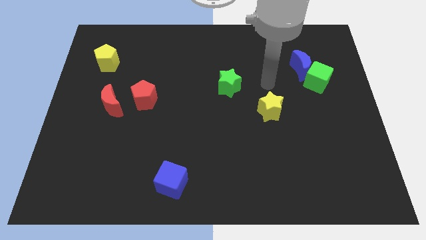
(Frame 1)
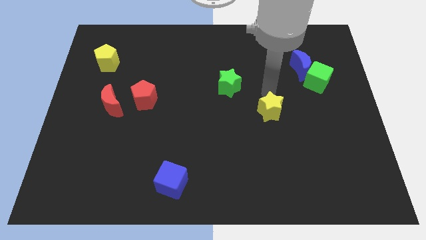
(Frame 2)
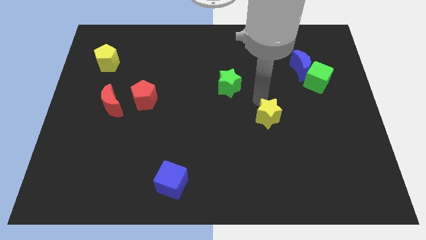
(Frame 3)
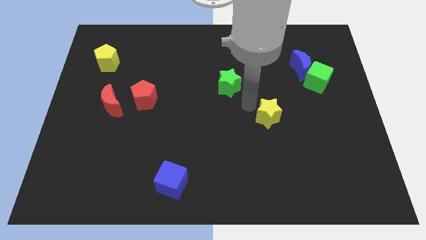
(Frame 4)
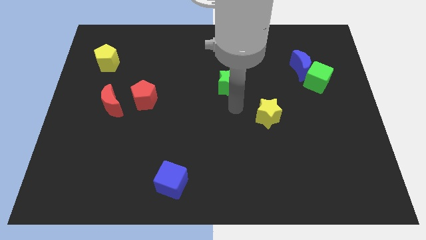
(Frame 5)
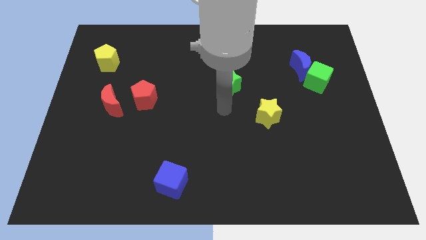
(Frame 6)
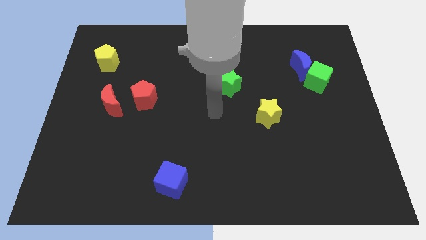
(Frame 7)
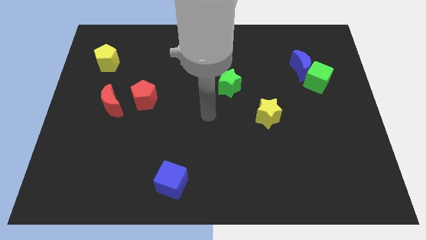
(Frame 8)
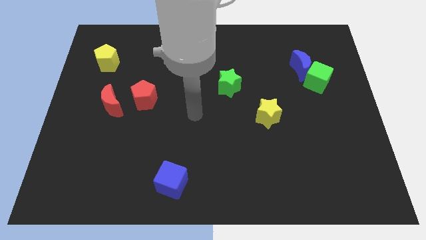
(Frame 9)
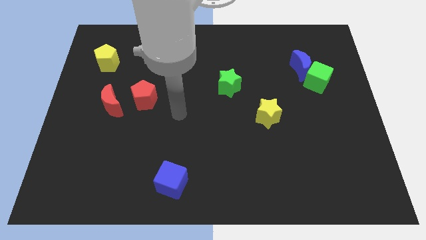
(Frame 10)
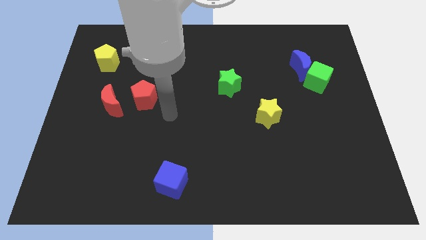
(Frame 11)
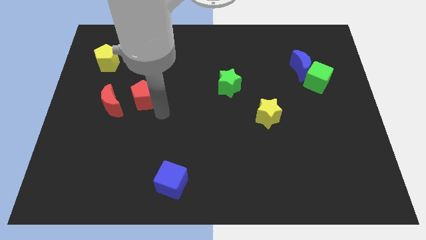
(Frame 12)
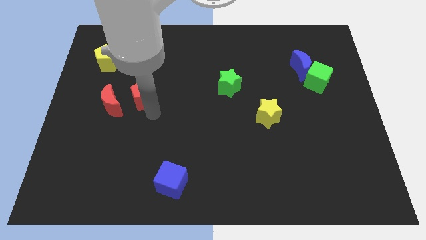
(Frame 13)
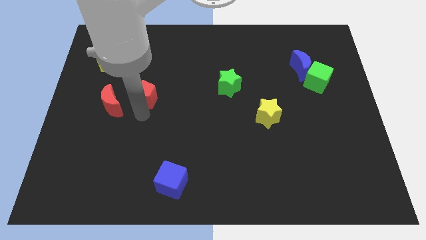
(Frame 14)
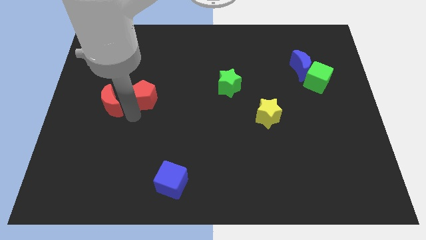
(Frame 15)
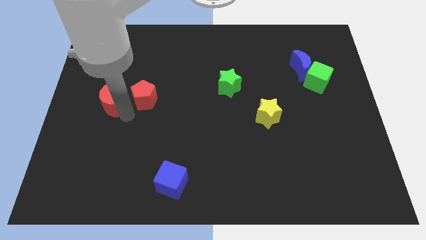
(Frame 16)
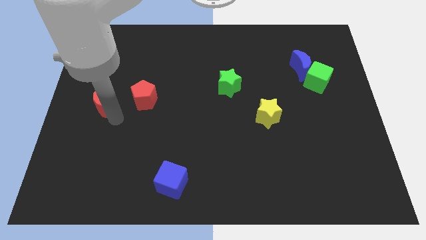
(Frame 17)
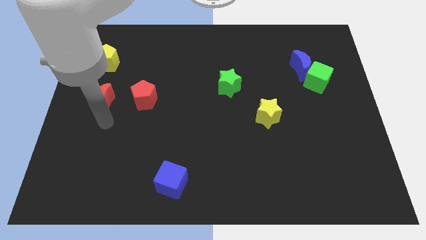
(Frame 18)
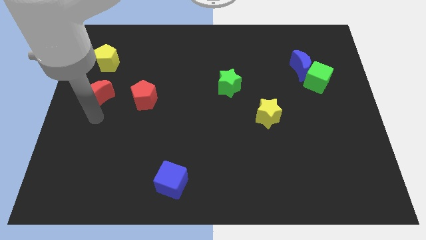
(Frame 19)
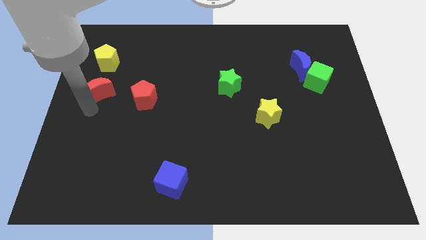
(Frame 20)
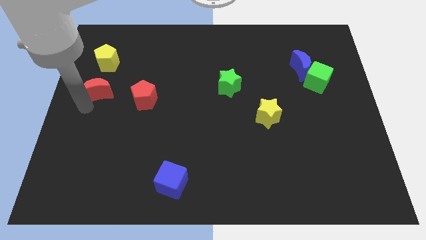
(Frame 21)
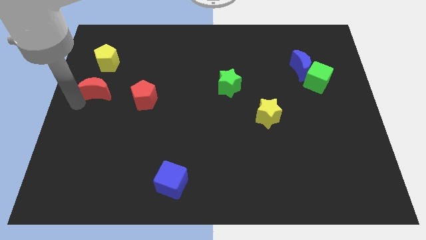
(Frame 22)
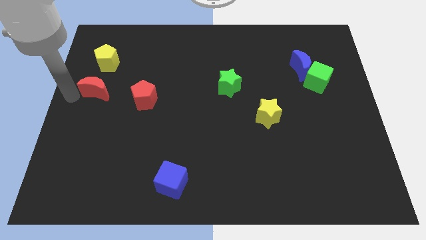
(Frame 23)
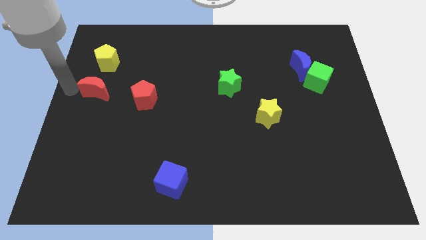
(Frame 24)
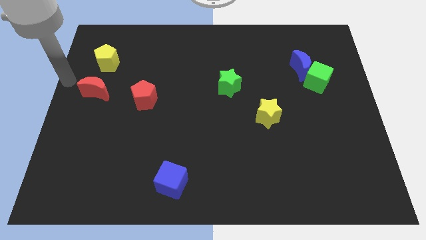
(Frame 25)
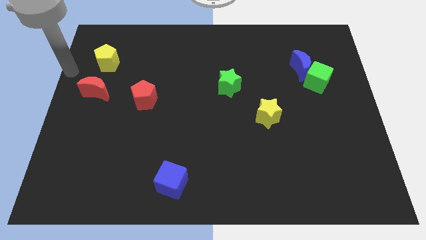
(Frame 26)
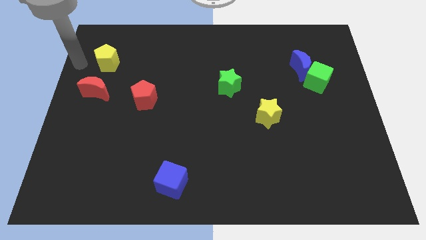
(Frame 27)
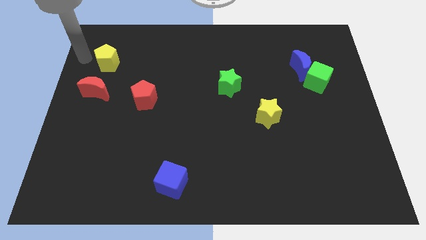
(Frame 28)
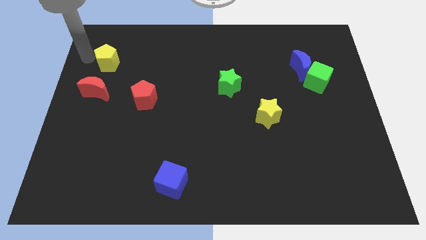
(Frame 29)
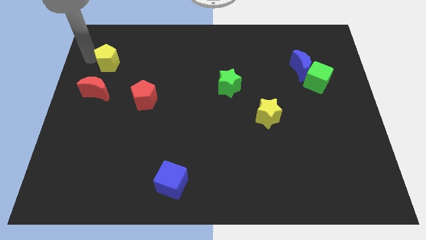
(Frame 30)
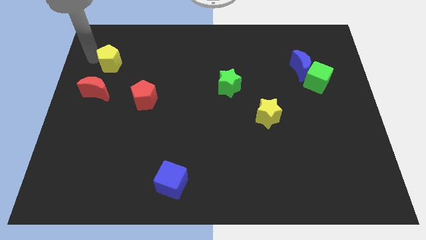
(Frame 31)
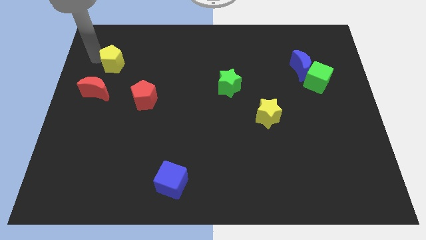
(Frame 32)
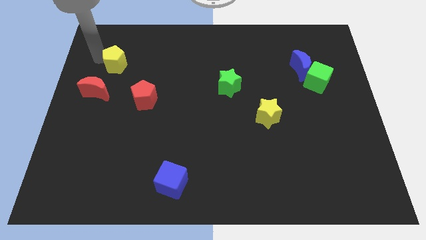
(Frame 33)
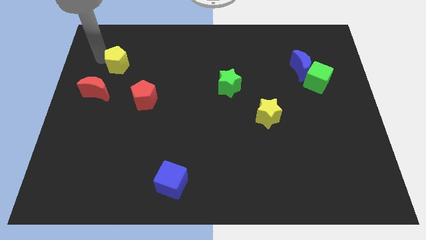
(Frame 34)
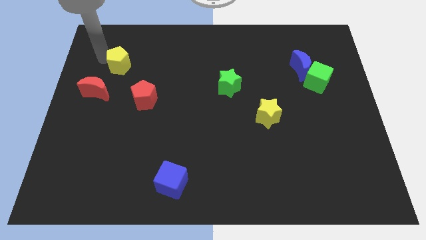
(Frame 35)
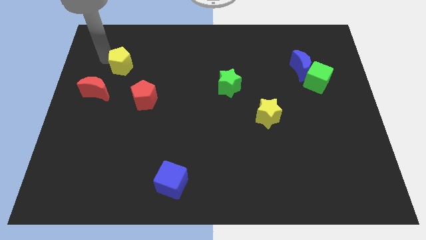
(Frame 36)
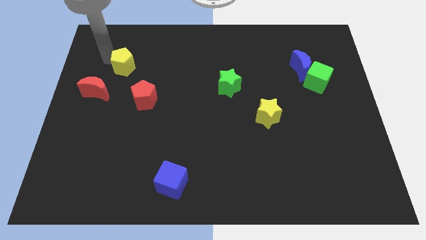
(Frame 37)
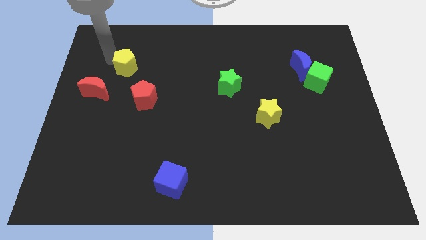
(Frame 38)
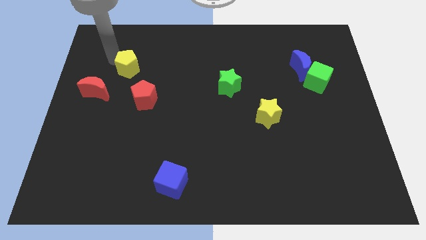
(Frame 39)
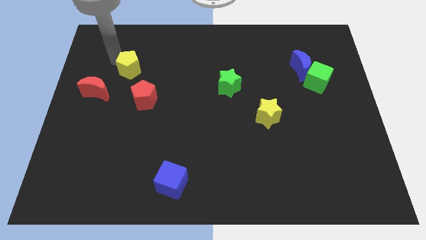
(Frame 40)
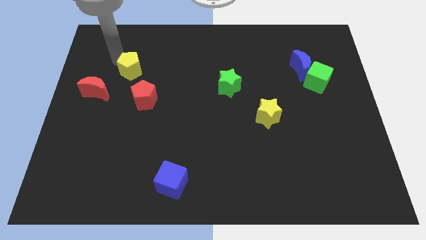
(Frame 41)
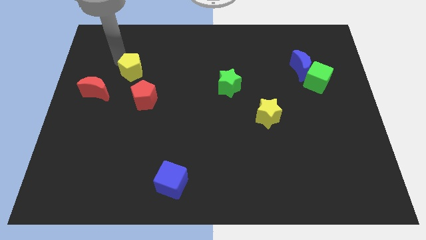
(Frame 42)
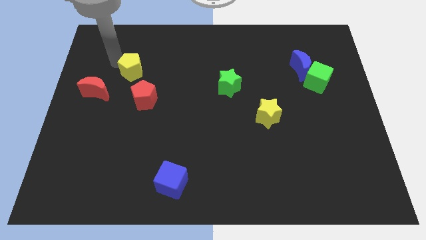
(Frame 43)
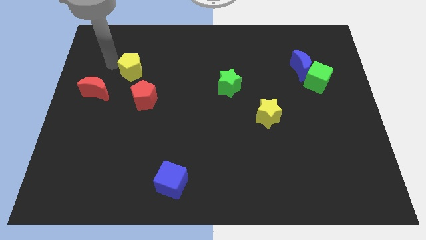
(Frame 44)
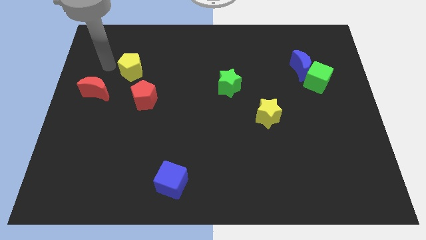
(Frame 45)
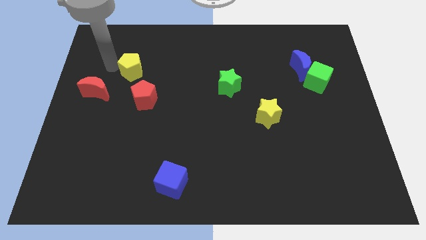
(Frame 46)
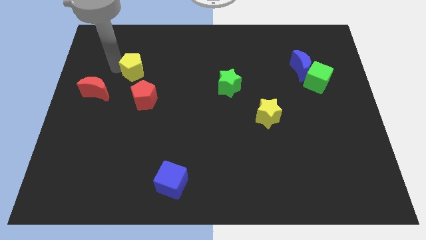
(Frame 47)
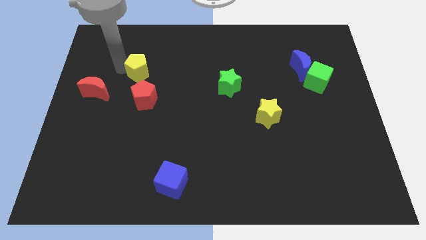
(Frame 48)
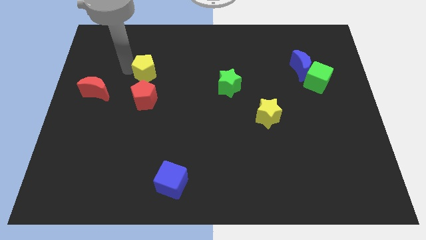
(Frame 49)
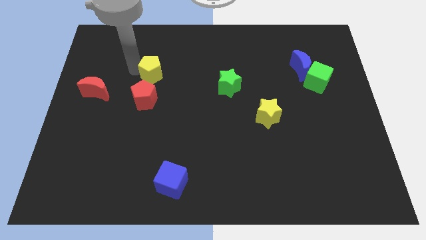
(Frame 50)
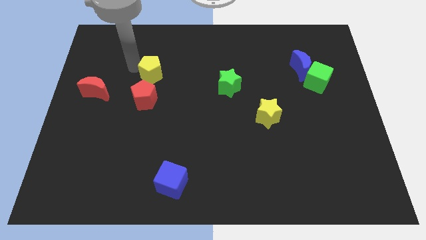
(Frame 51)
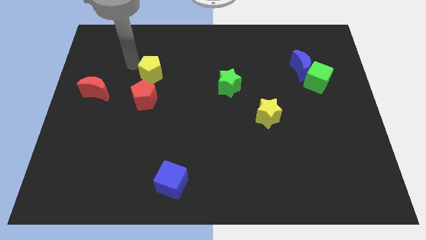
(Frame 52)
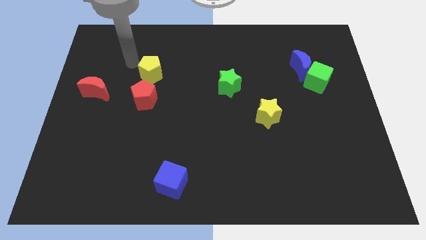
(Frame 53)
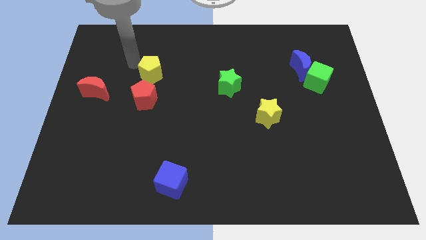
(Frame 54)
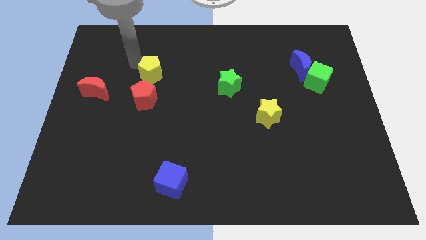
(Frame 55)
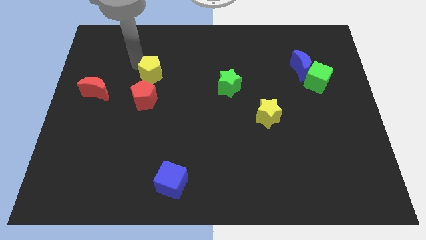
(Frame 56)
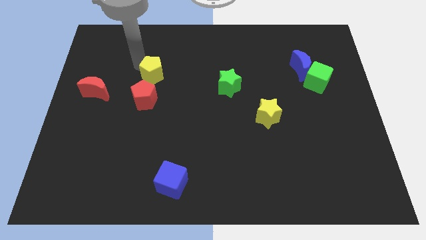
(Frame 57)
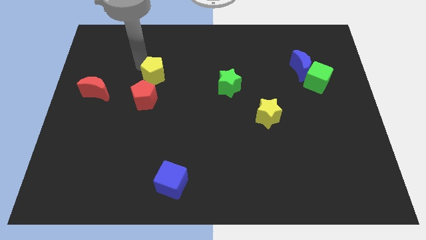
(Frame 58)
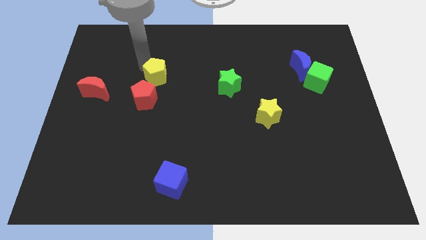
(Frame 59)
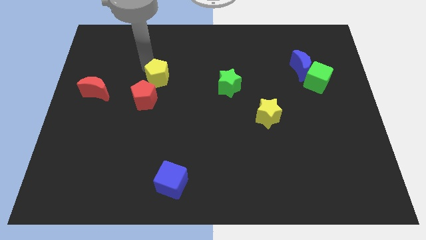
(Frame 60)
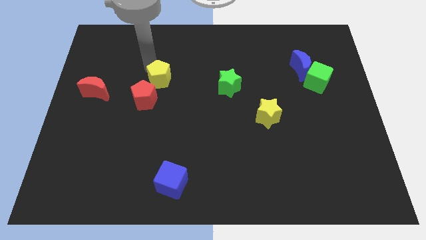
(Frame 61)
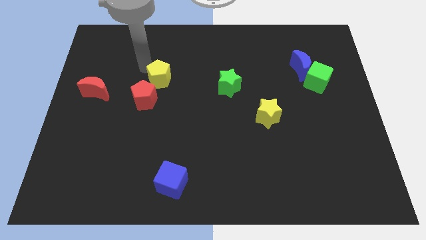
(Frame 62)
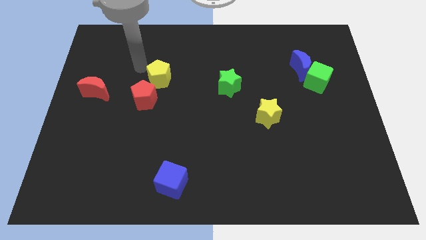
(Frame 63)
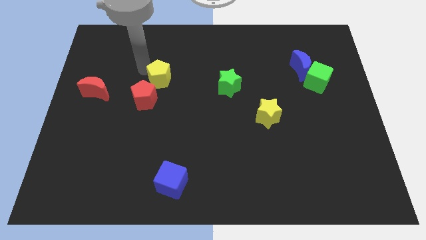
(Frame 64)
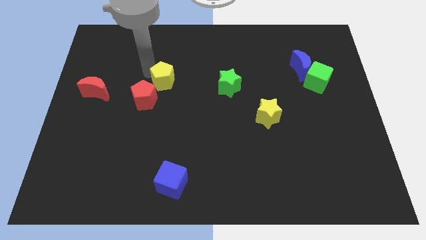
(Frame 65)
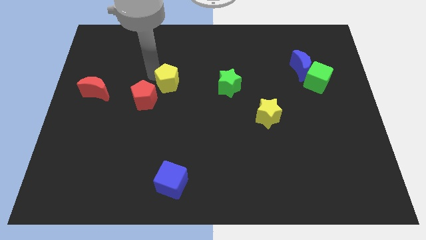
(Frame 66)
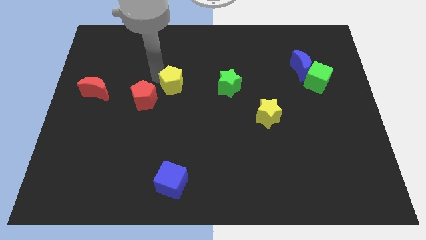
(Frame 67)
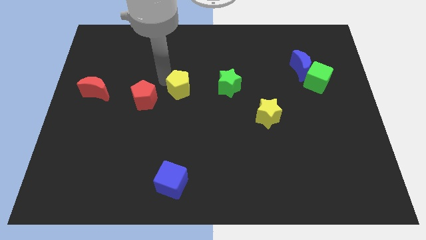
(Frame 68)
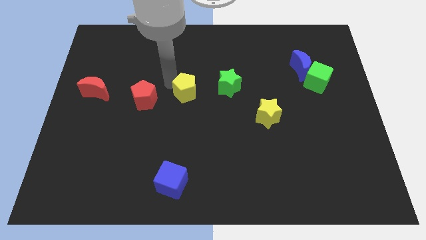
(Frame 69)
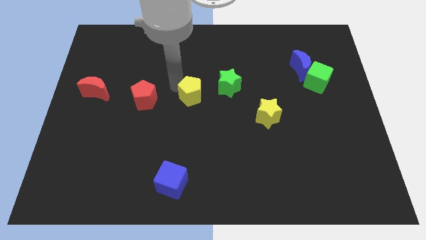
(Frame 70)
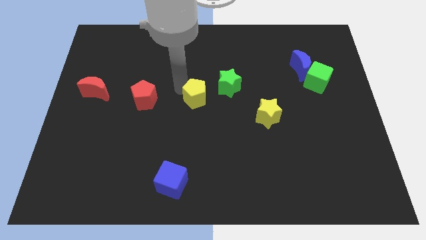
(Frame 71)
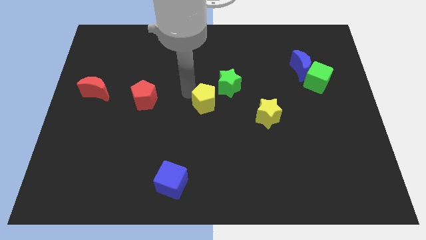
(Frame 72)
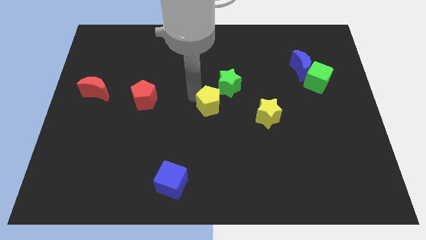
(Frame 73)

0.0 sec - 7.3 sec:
put the yellow pentagon left of the yellow star

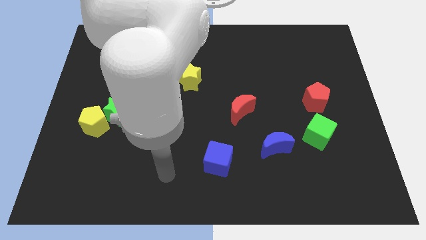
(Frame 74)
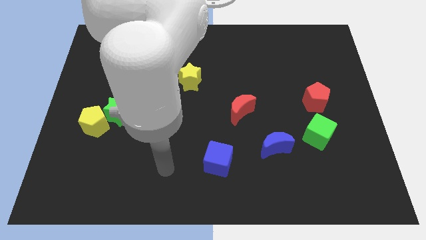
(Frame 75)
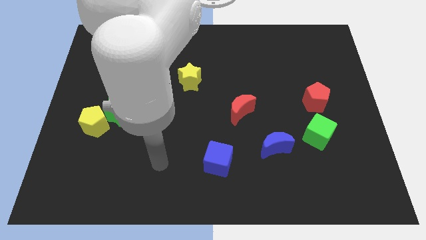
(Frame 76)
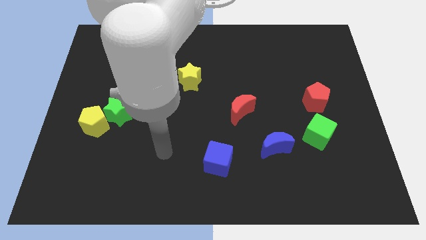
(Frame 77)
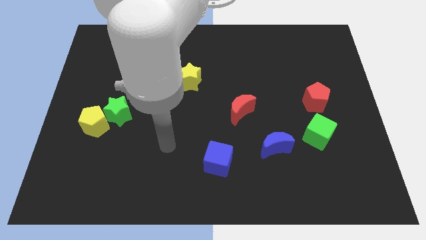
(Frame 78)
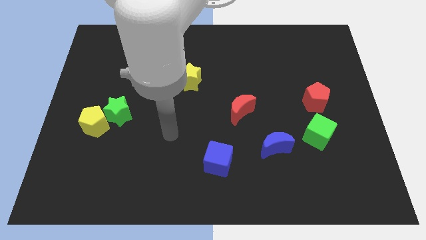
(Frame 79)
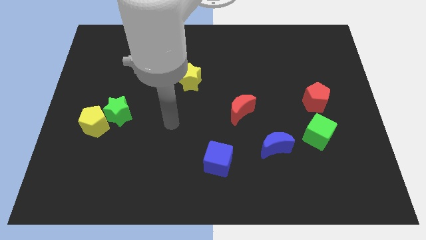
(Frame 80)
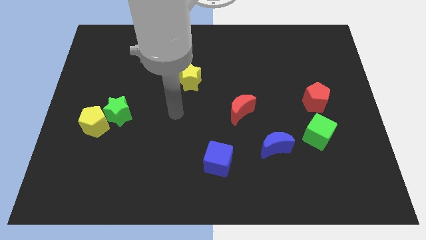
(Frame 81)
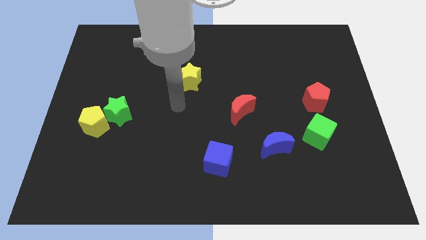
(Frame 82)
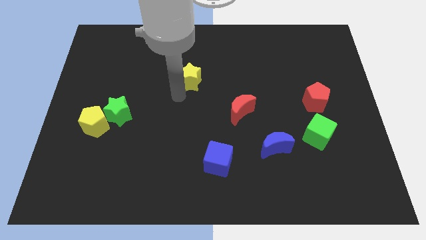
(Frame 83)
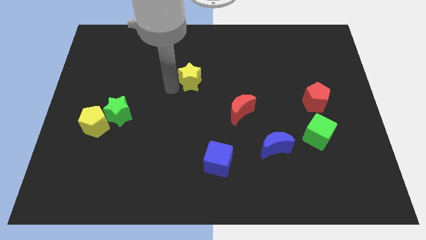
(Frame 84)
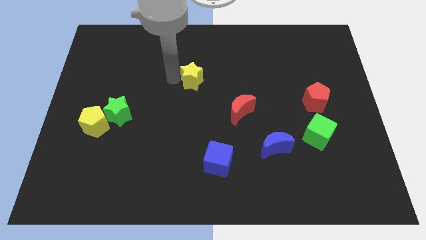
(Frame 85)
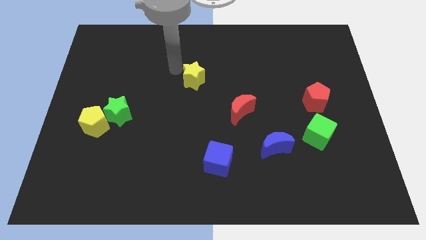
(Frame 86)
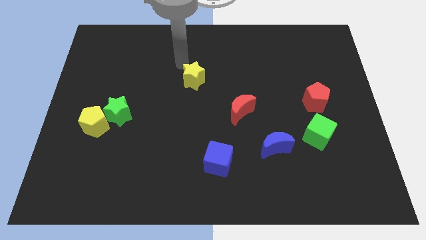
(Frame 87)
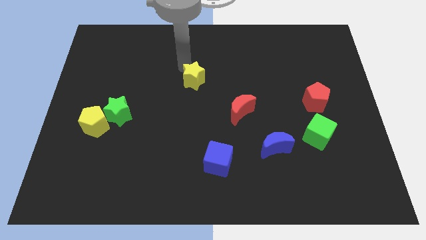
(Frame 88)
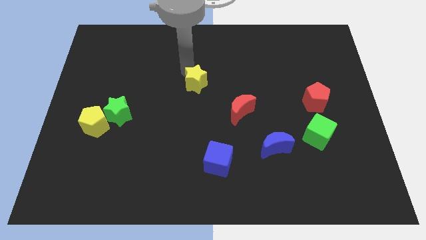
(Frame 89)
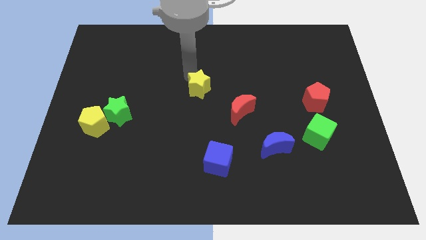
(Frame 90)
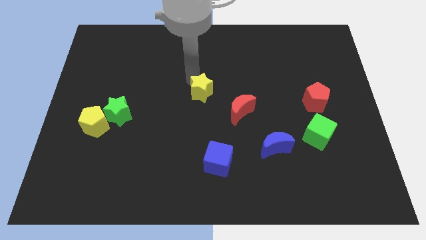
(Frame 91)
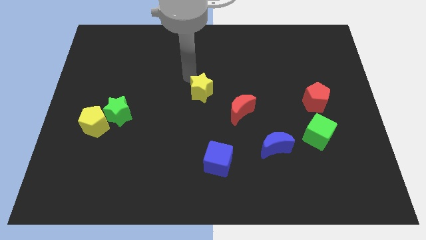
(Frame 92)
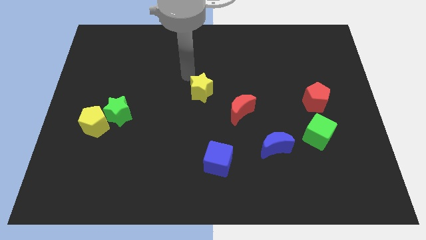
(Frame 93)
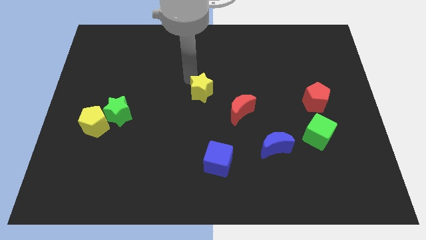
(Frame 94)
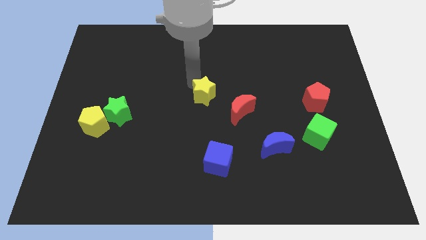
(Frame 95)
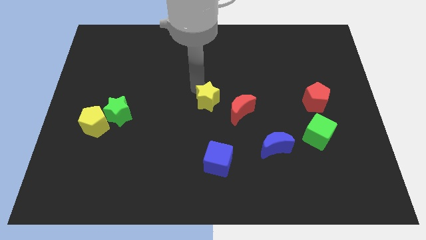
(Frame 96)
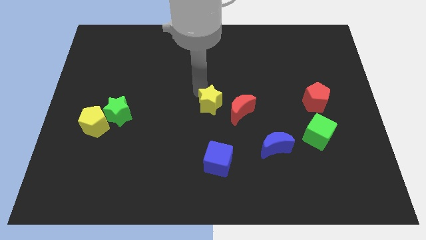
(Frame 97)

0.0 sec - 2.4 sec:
move the yellow star to the top of the blue cube
